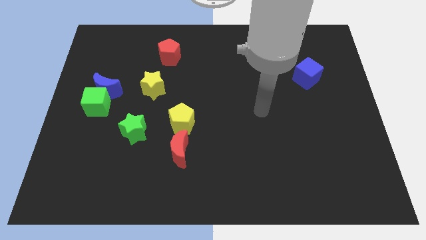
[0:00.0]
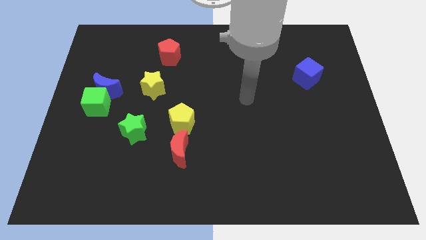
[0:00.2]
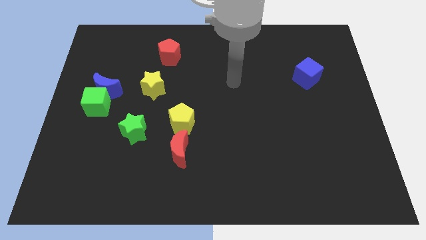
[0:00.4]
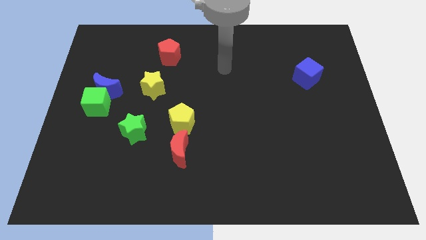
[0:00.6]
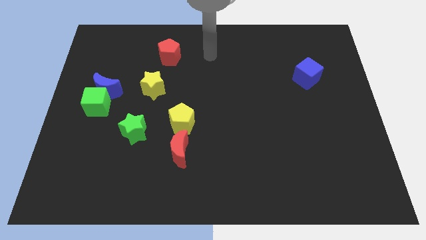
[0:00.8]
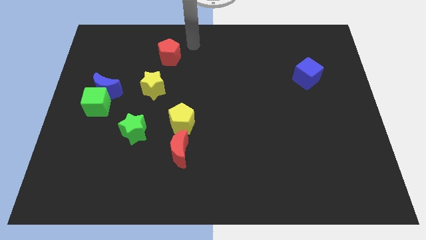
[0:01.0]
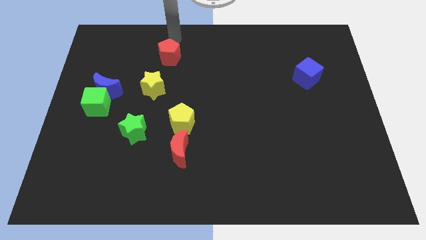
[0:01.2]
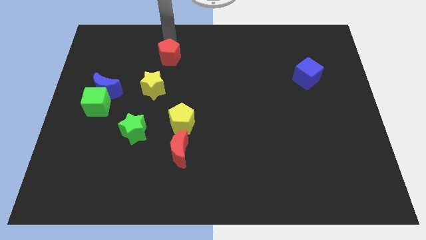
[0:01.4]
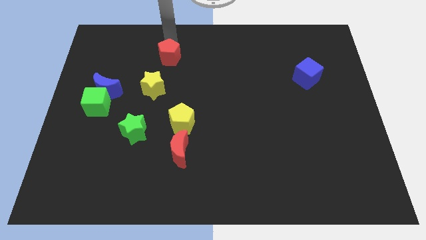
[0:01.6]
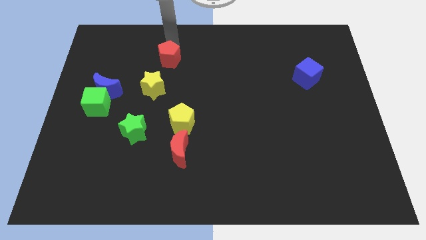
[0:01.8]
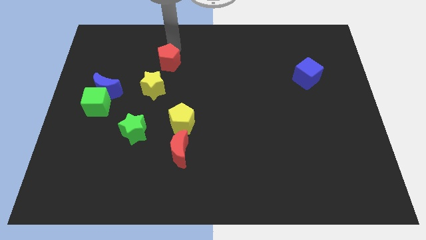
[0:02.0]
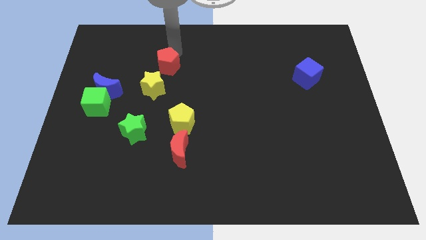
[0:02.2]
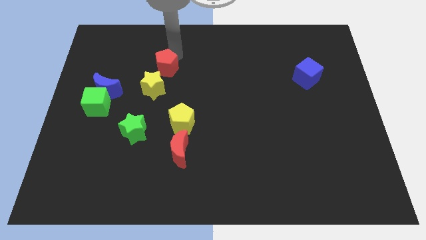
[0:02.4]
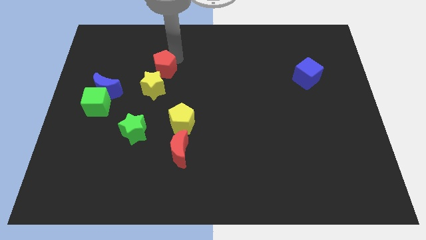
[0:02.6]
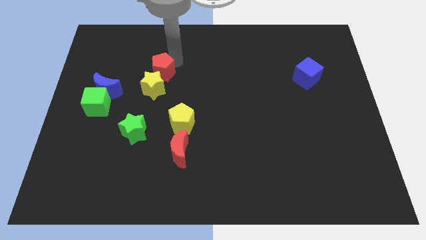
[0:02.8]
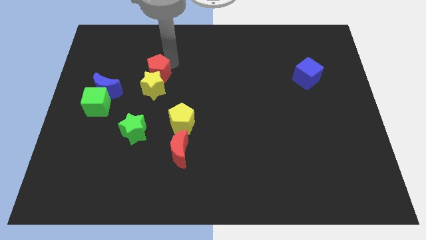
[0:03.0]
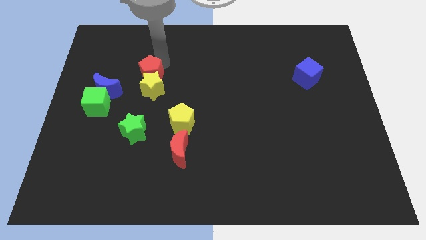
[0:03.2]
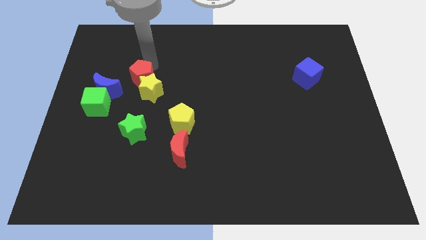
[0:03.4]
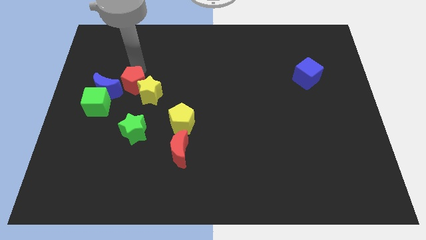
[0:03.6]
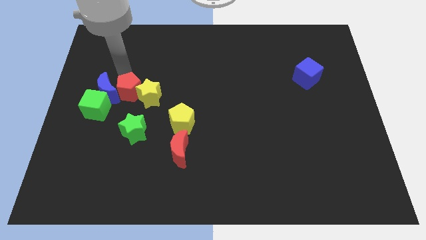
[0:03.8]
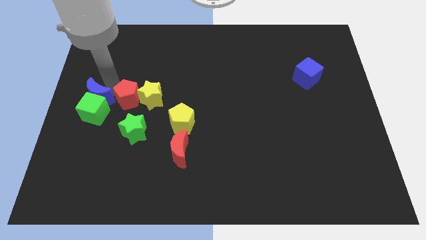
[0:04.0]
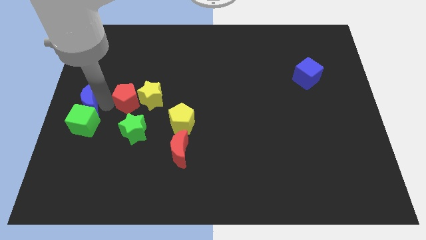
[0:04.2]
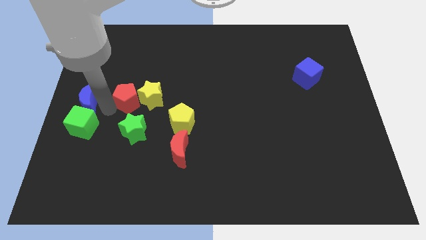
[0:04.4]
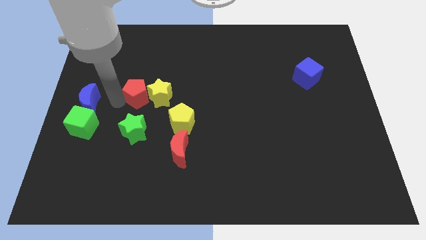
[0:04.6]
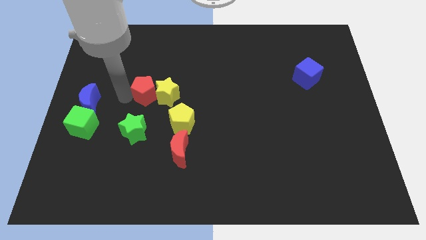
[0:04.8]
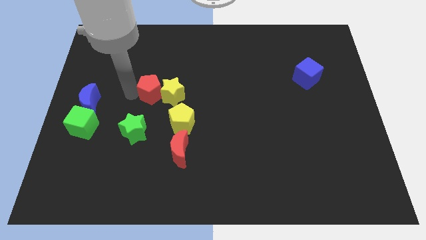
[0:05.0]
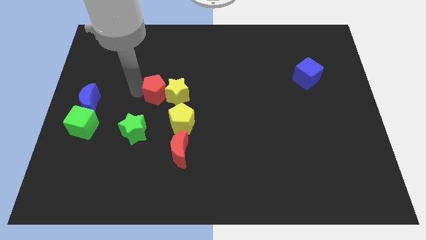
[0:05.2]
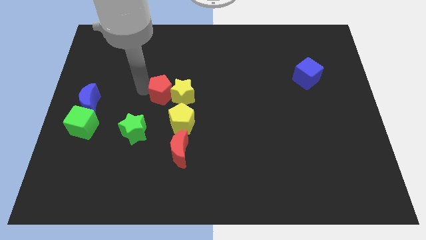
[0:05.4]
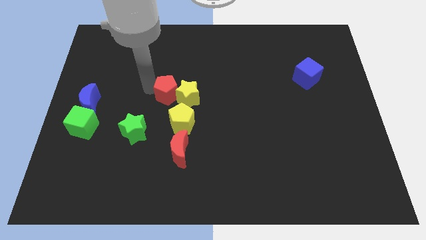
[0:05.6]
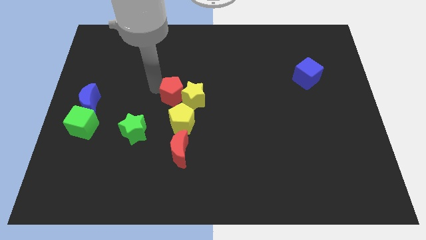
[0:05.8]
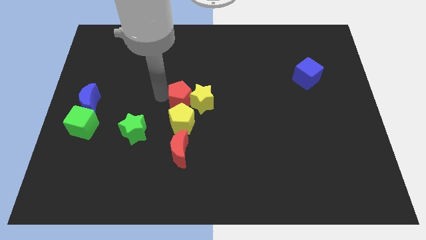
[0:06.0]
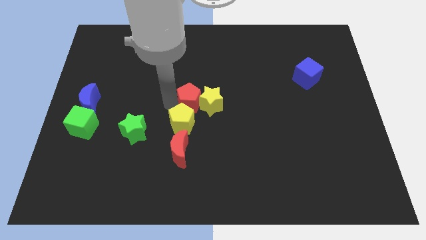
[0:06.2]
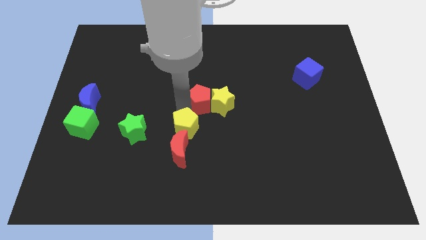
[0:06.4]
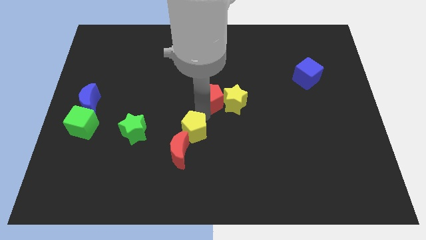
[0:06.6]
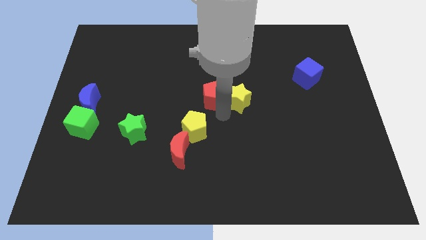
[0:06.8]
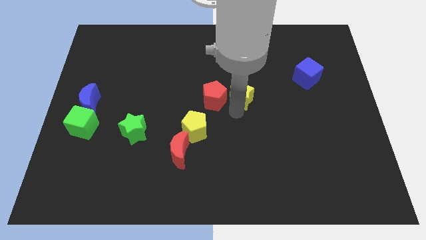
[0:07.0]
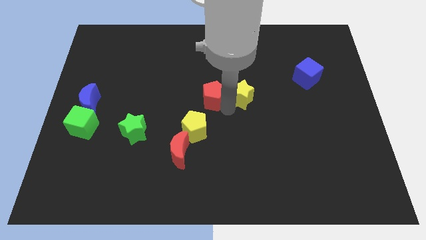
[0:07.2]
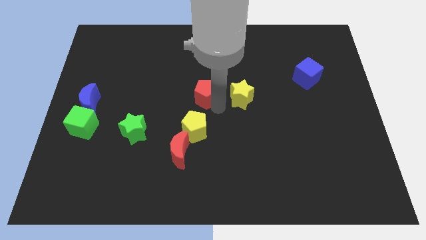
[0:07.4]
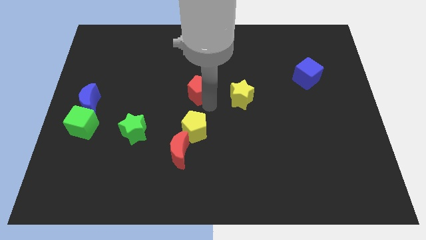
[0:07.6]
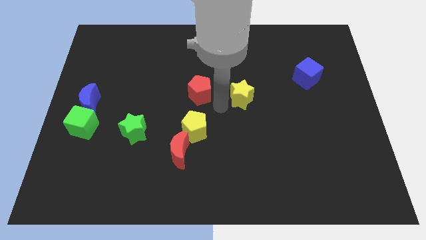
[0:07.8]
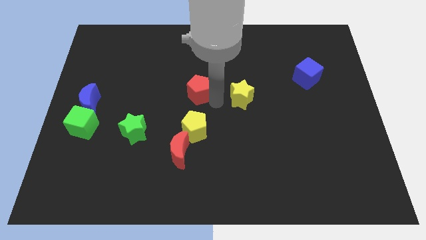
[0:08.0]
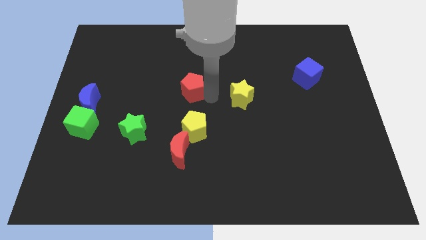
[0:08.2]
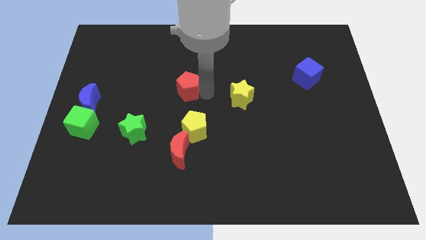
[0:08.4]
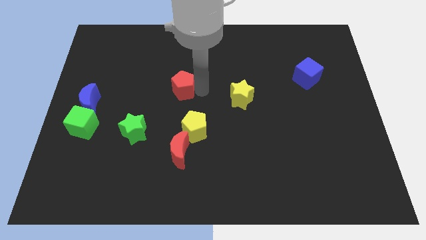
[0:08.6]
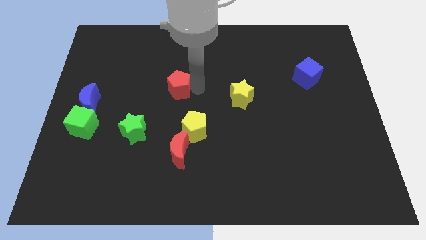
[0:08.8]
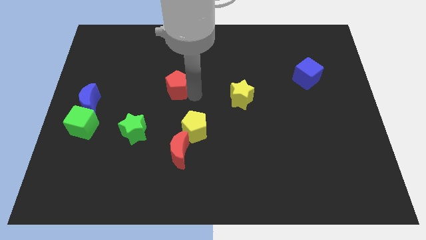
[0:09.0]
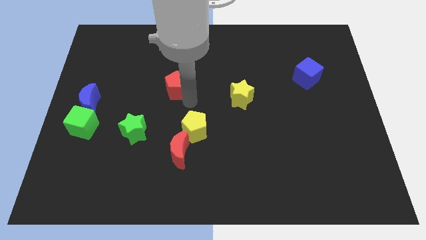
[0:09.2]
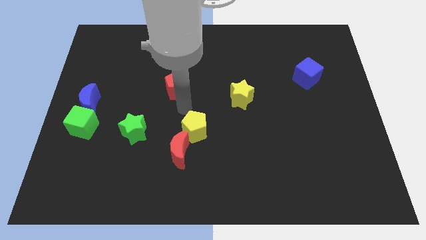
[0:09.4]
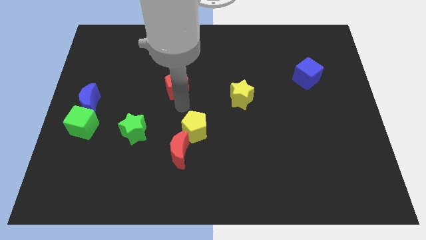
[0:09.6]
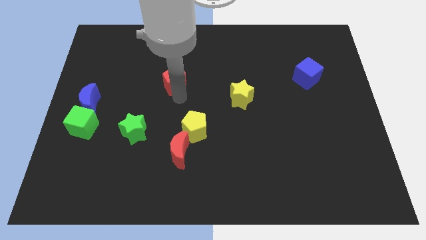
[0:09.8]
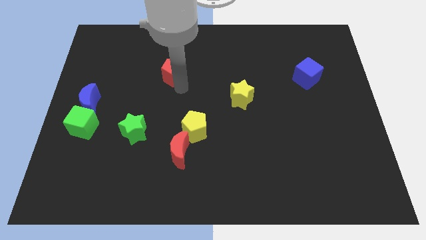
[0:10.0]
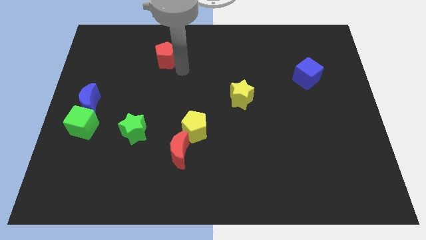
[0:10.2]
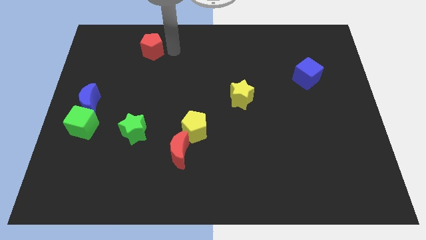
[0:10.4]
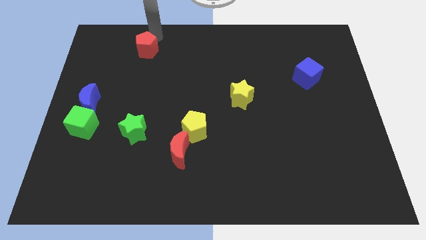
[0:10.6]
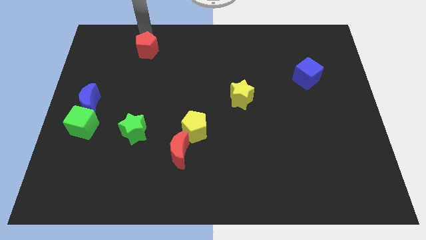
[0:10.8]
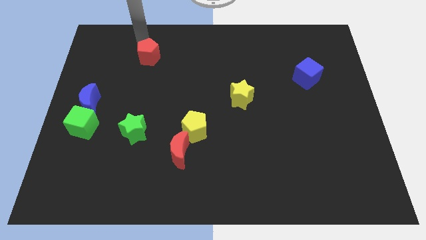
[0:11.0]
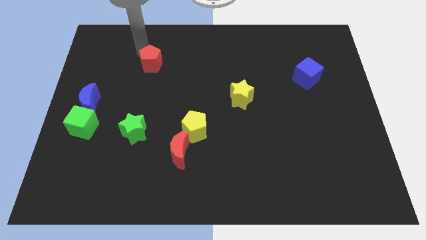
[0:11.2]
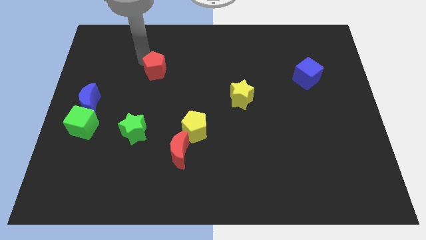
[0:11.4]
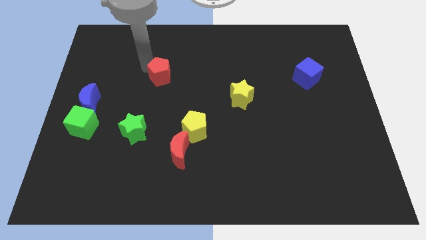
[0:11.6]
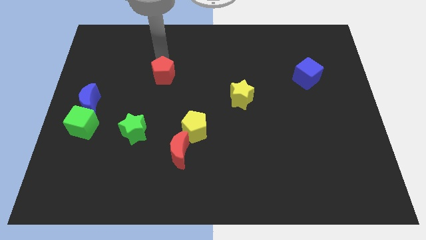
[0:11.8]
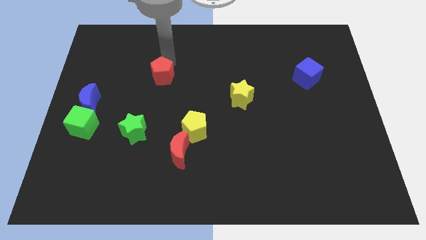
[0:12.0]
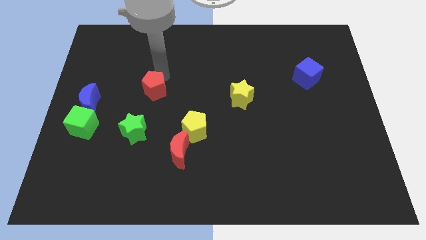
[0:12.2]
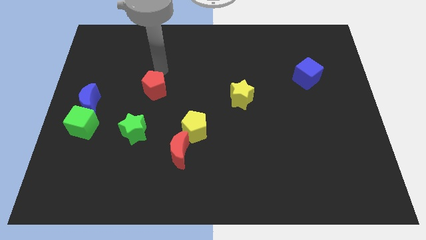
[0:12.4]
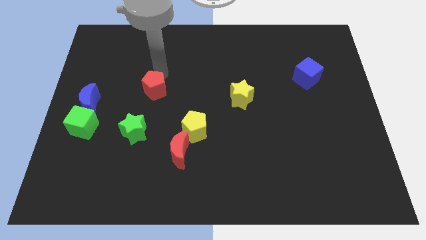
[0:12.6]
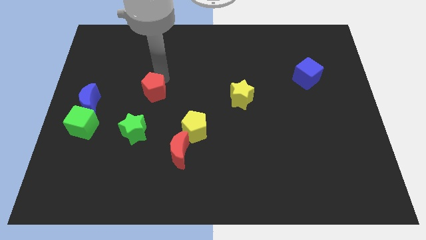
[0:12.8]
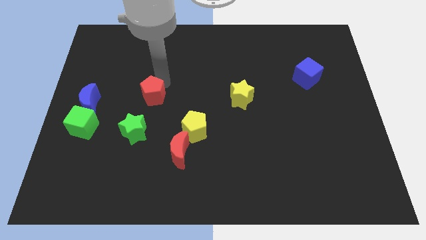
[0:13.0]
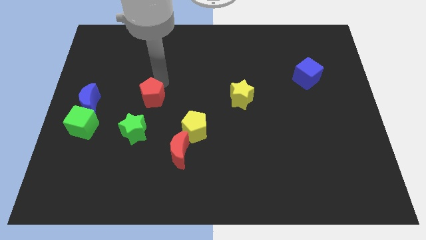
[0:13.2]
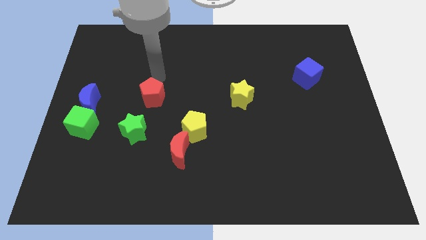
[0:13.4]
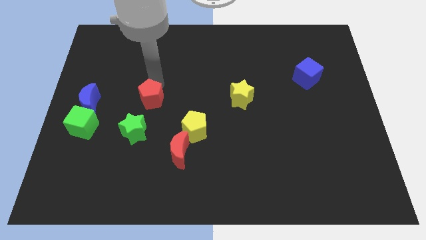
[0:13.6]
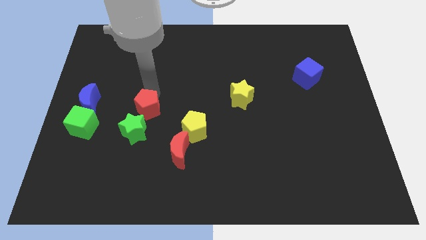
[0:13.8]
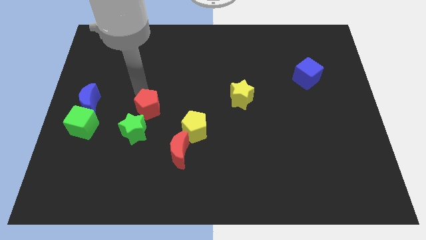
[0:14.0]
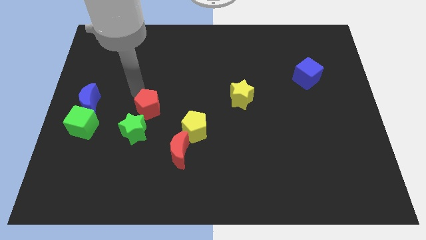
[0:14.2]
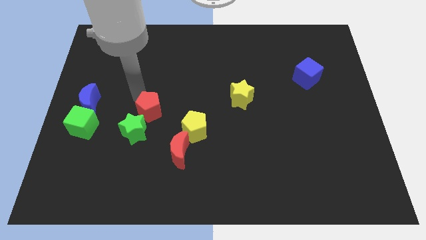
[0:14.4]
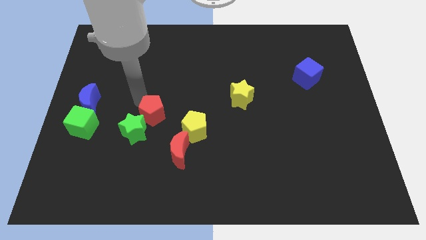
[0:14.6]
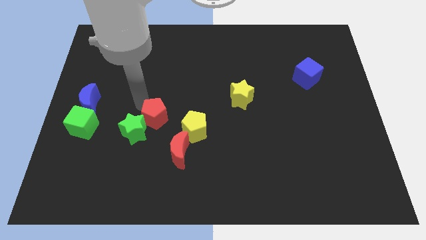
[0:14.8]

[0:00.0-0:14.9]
move the red pentagon down

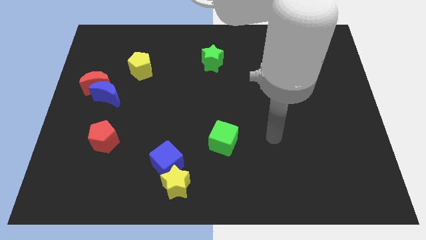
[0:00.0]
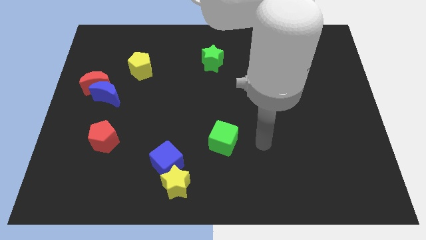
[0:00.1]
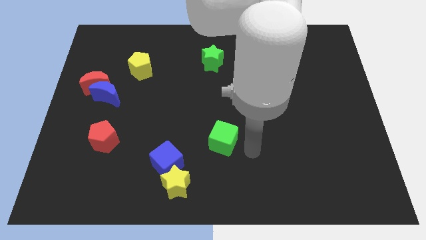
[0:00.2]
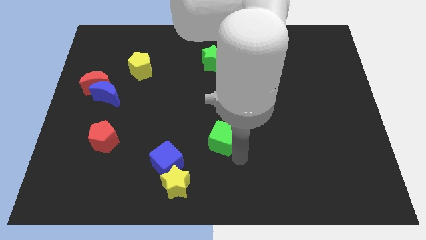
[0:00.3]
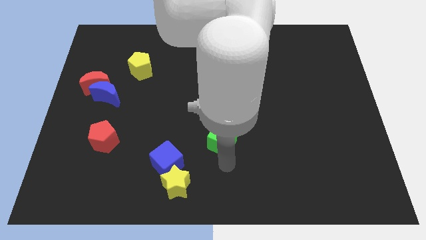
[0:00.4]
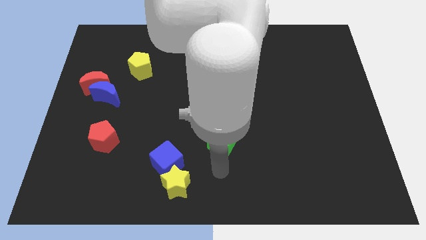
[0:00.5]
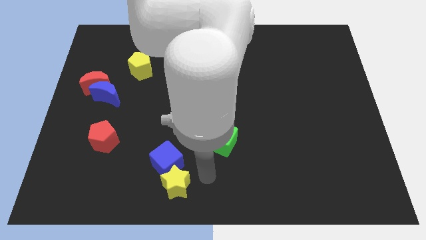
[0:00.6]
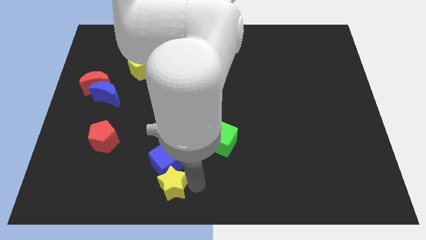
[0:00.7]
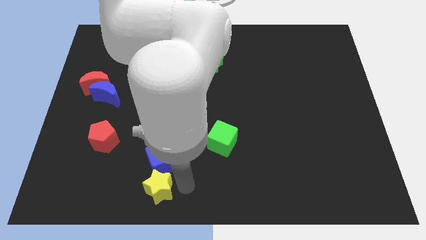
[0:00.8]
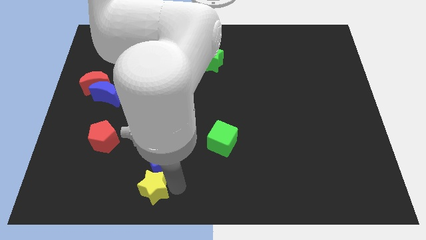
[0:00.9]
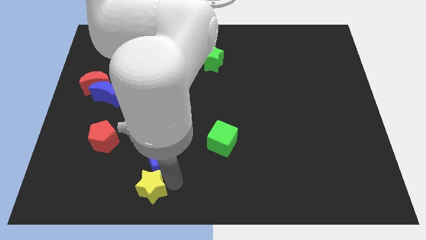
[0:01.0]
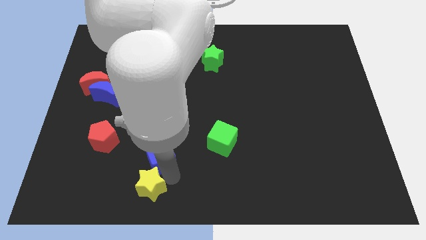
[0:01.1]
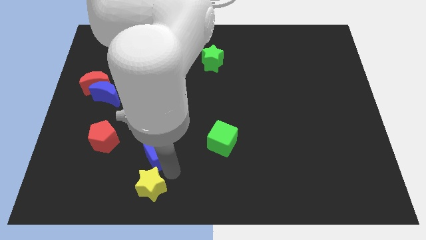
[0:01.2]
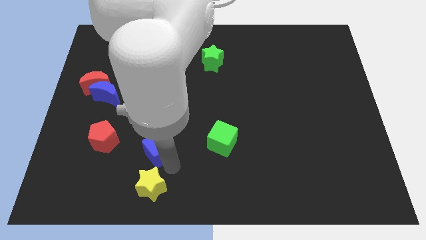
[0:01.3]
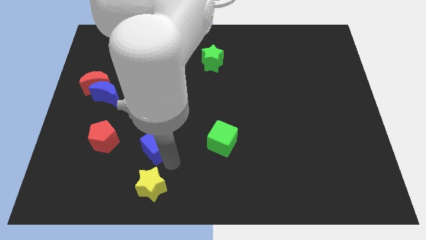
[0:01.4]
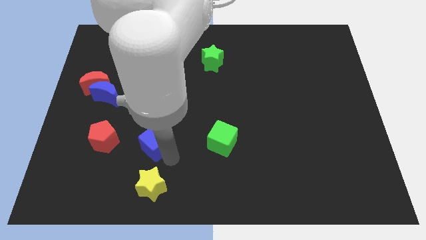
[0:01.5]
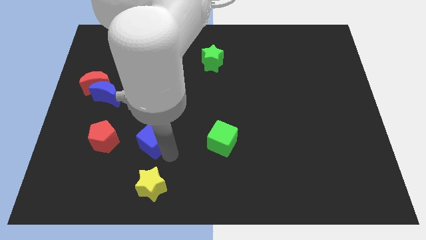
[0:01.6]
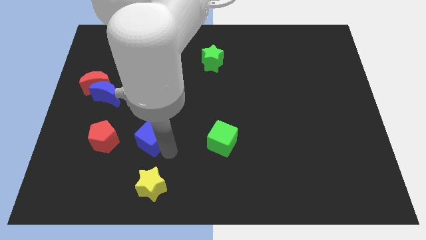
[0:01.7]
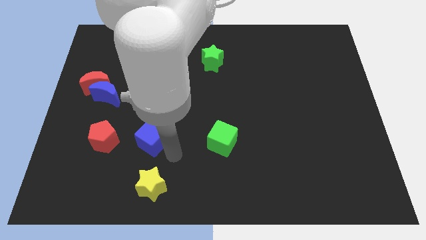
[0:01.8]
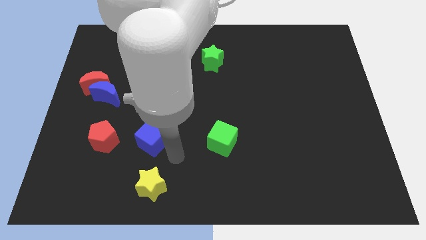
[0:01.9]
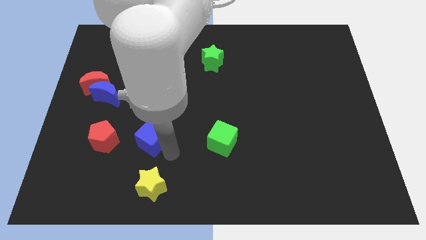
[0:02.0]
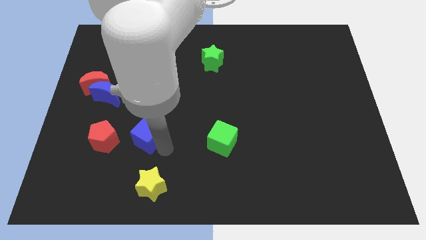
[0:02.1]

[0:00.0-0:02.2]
slightly push the blue cube up and left diagonally
